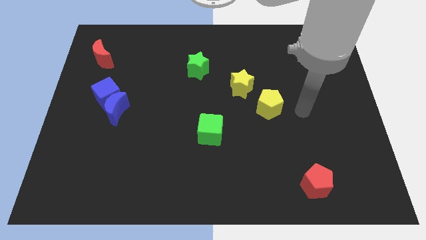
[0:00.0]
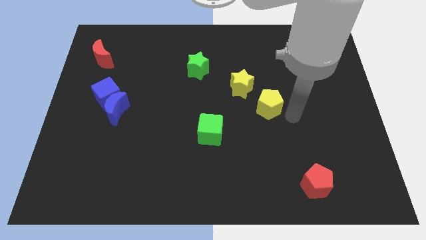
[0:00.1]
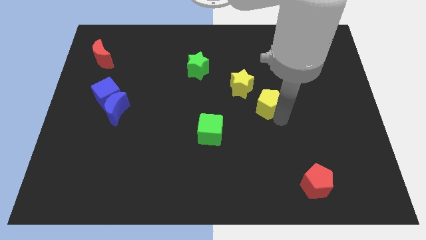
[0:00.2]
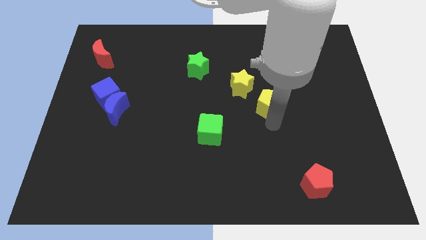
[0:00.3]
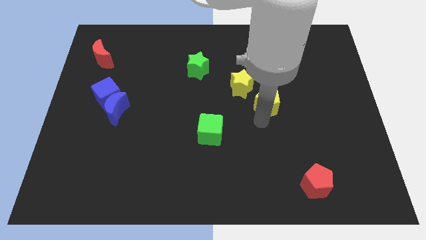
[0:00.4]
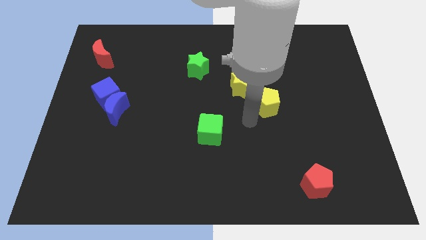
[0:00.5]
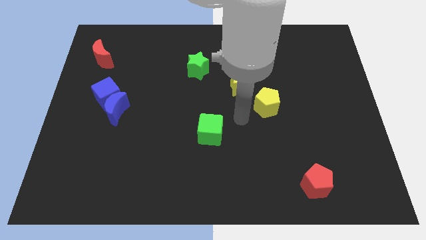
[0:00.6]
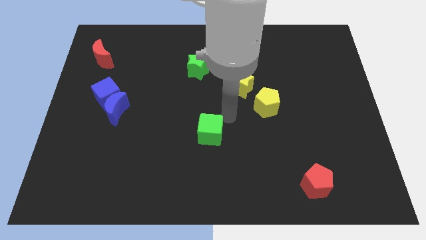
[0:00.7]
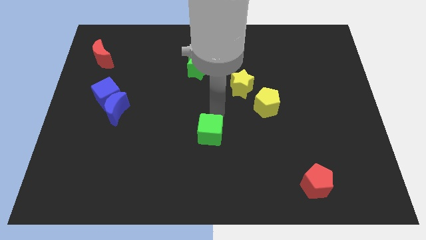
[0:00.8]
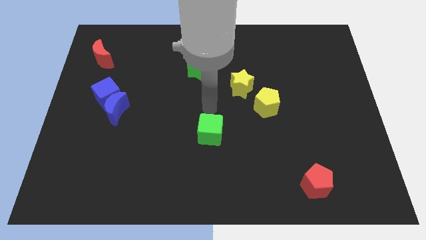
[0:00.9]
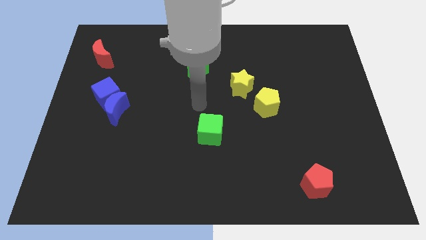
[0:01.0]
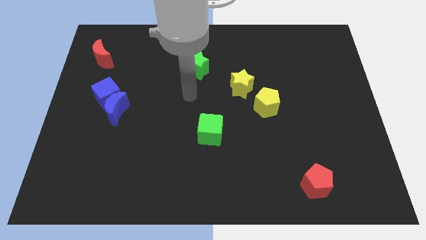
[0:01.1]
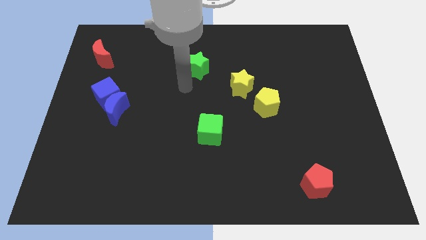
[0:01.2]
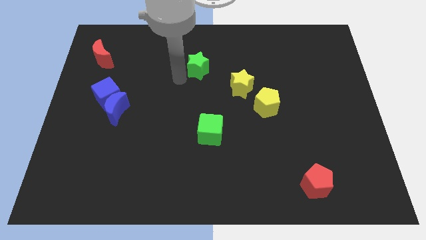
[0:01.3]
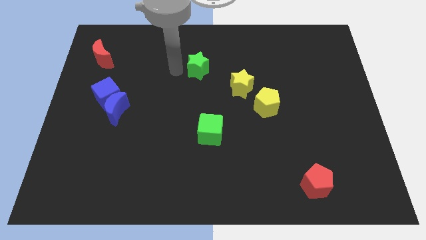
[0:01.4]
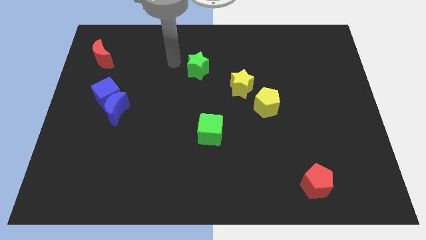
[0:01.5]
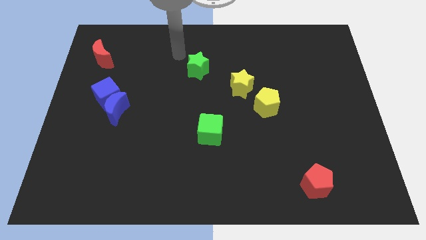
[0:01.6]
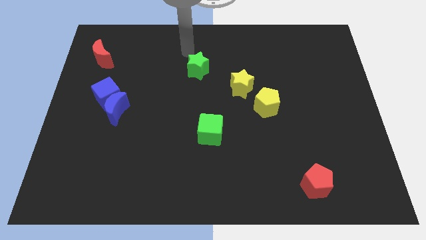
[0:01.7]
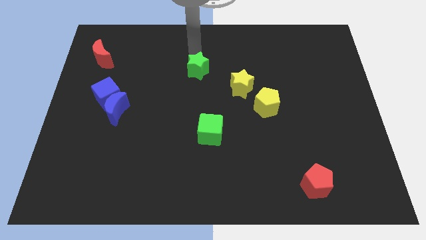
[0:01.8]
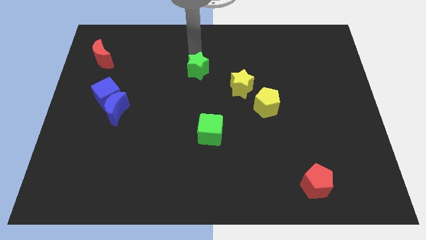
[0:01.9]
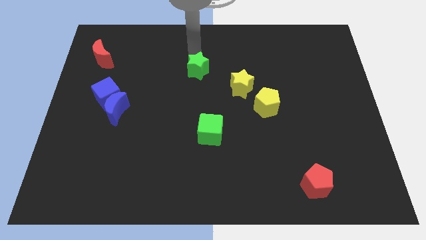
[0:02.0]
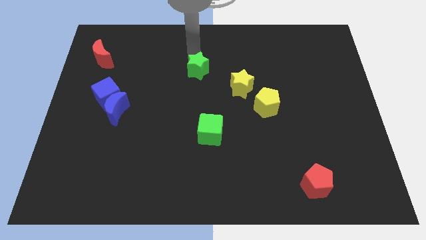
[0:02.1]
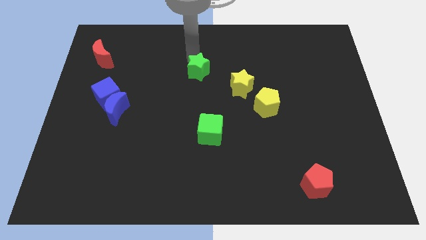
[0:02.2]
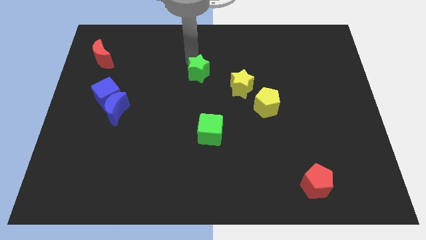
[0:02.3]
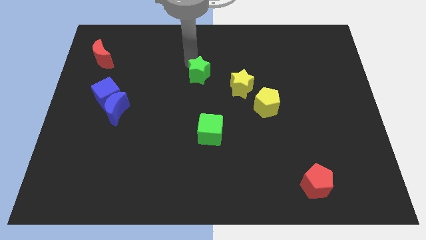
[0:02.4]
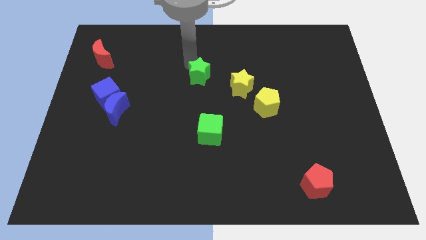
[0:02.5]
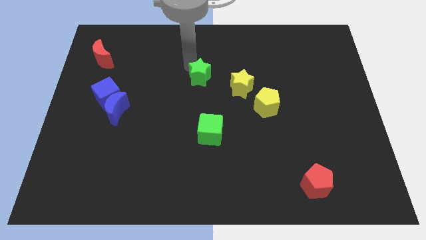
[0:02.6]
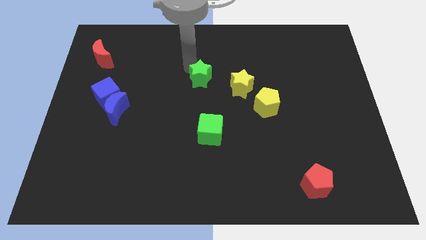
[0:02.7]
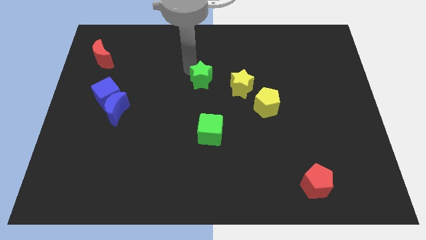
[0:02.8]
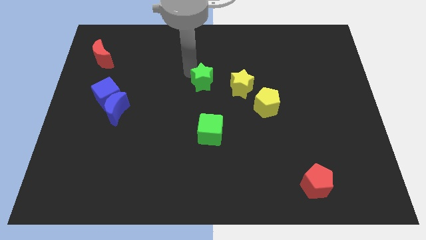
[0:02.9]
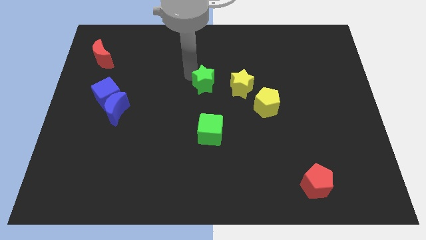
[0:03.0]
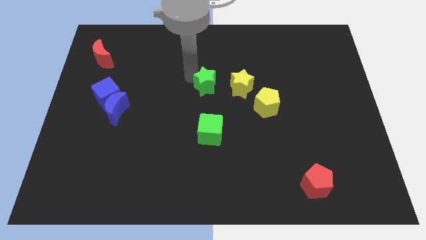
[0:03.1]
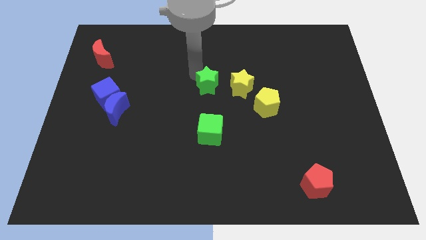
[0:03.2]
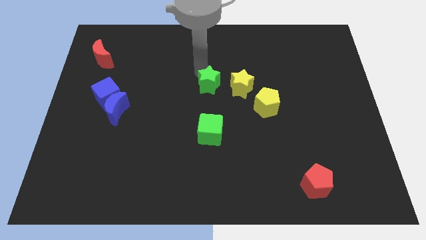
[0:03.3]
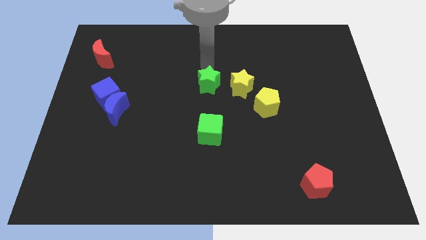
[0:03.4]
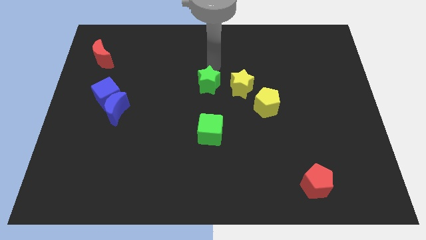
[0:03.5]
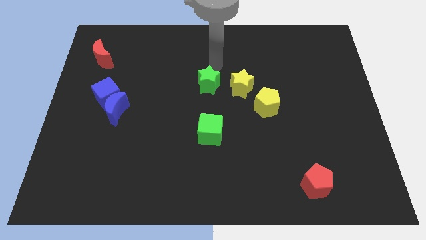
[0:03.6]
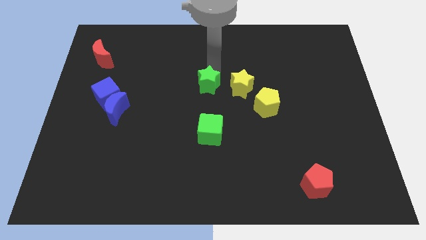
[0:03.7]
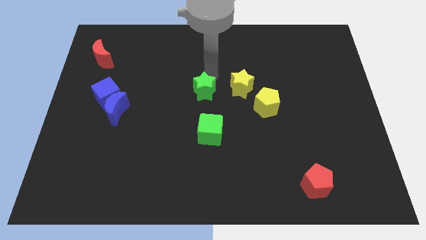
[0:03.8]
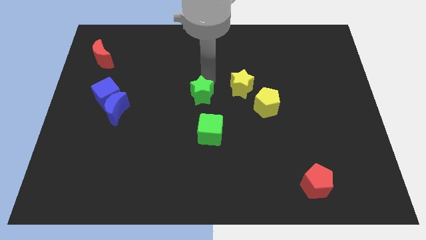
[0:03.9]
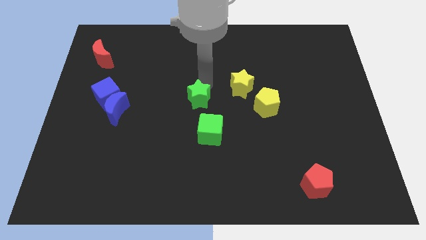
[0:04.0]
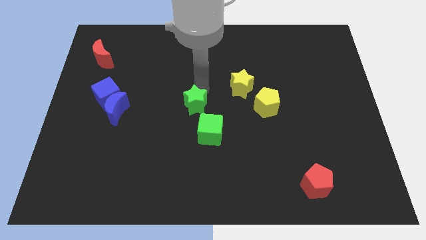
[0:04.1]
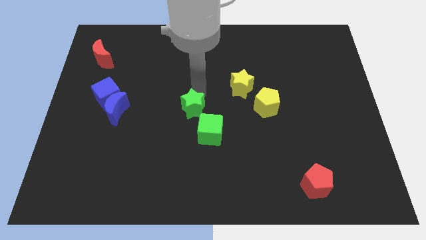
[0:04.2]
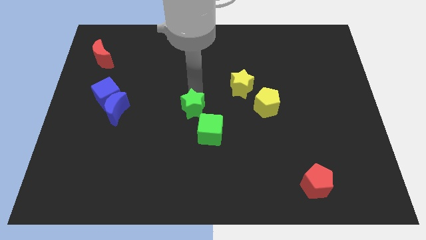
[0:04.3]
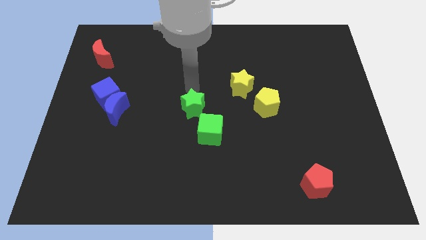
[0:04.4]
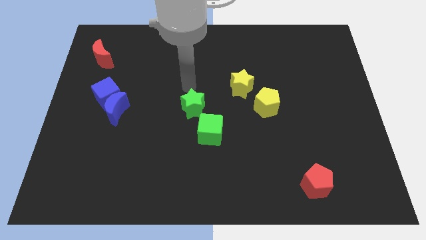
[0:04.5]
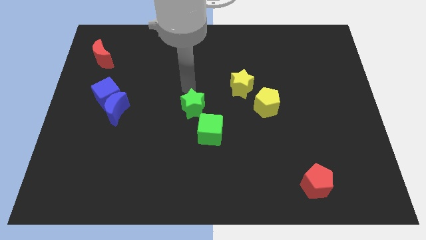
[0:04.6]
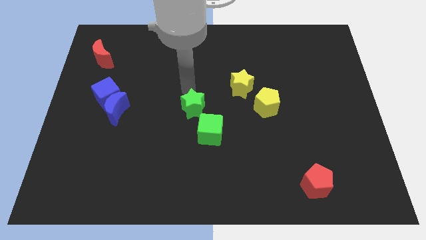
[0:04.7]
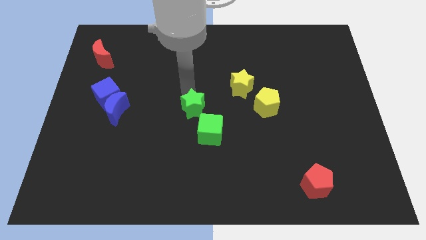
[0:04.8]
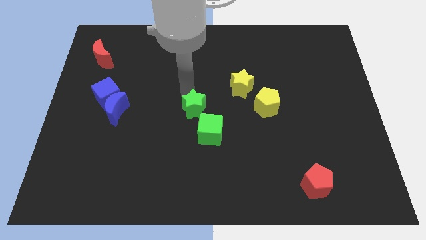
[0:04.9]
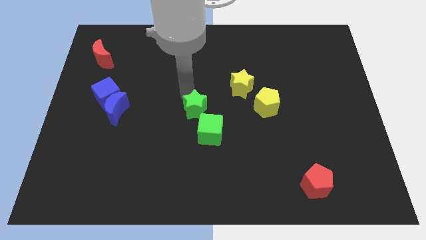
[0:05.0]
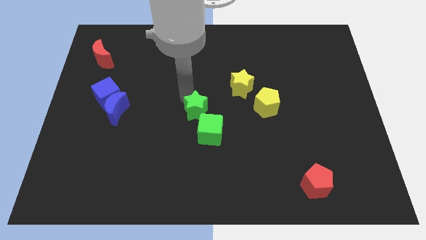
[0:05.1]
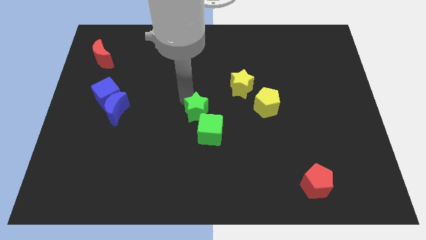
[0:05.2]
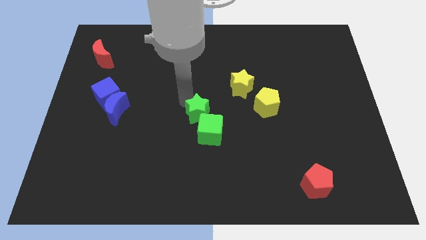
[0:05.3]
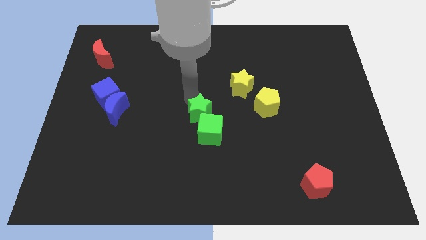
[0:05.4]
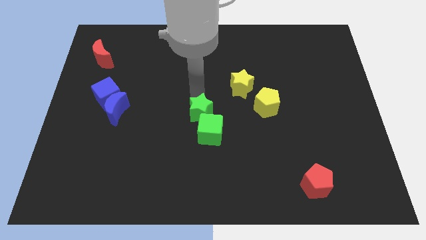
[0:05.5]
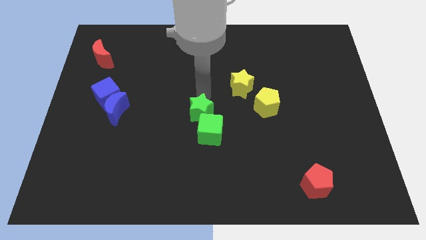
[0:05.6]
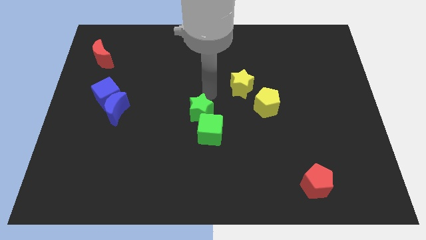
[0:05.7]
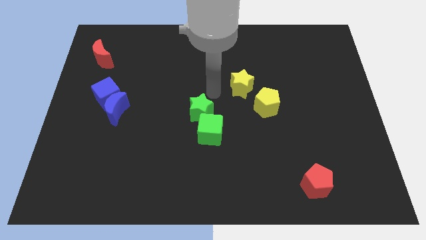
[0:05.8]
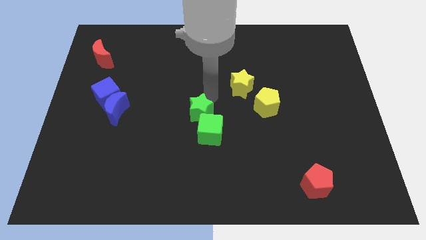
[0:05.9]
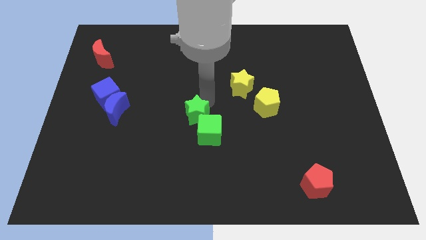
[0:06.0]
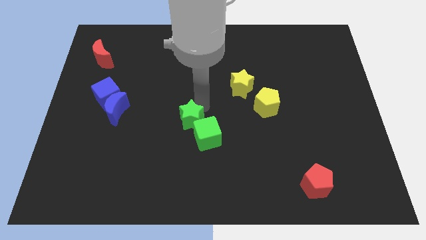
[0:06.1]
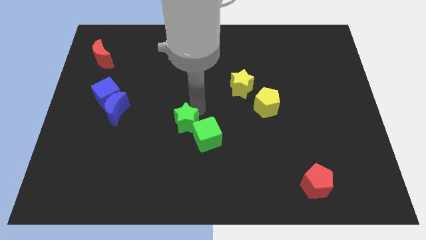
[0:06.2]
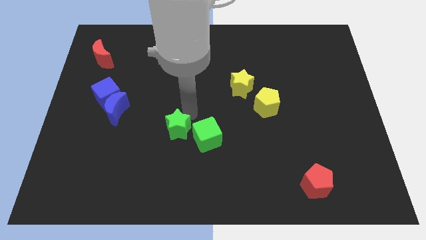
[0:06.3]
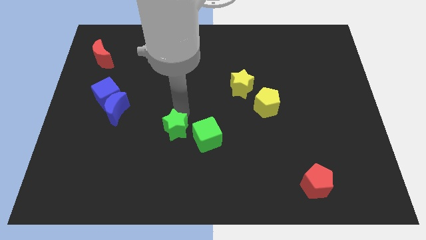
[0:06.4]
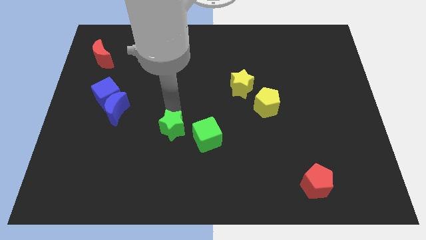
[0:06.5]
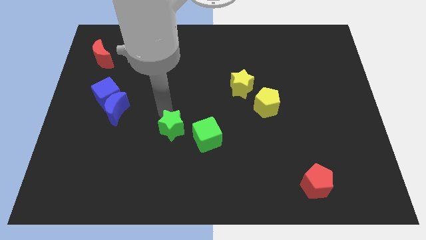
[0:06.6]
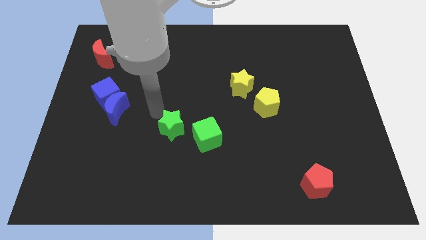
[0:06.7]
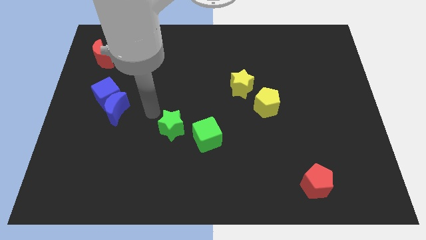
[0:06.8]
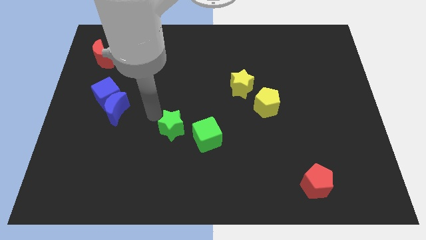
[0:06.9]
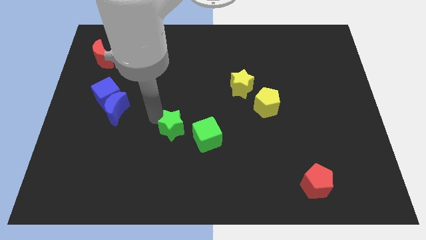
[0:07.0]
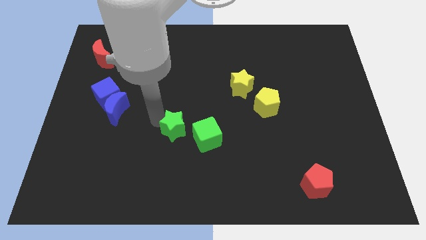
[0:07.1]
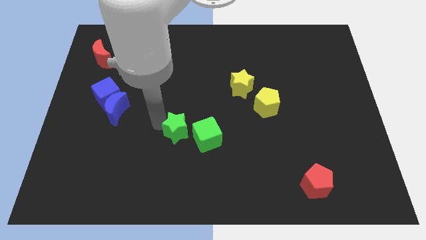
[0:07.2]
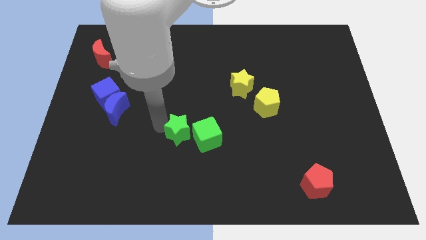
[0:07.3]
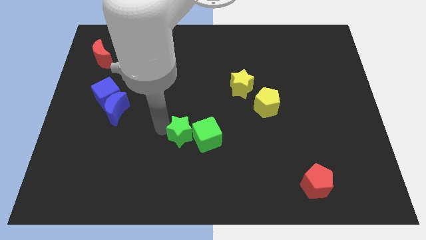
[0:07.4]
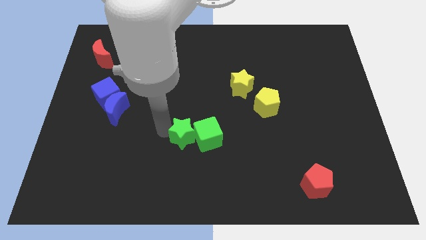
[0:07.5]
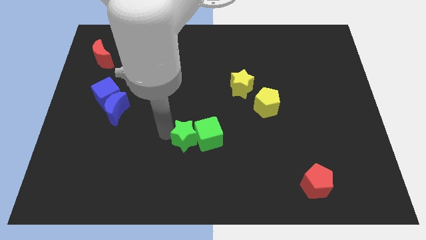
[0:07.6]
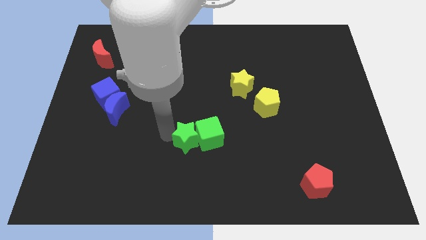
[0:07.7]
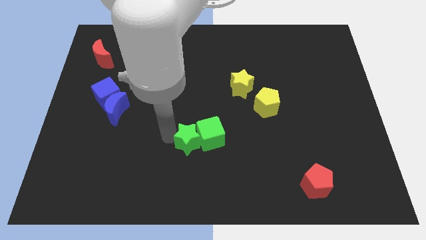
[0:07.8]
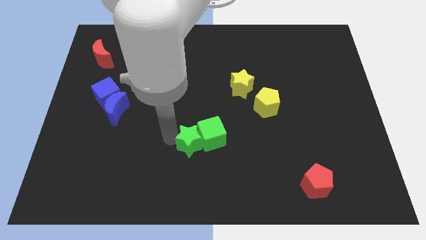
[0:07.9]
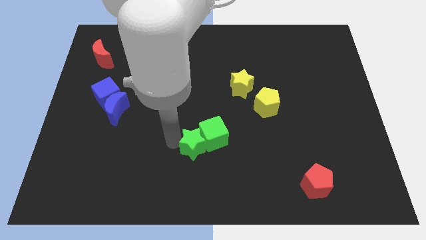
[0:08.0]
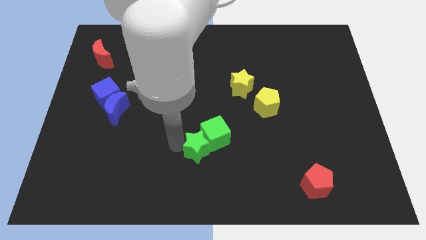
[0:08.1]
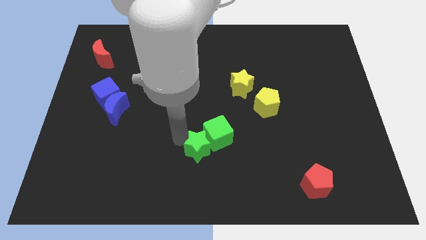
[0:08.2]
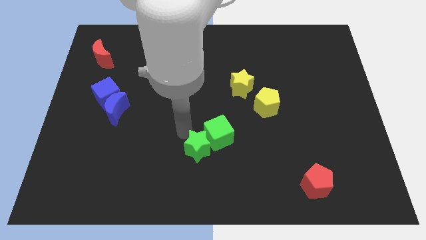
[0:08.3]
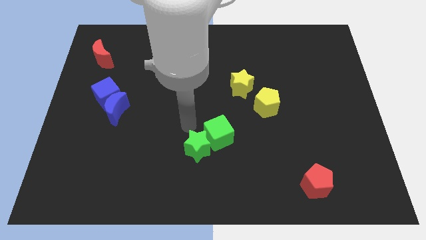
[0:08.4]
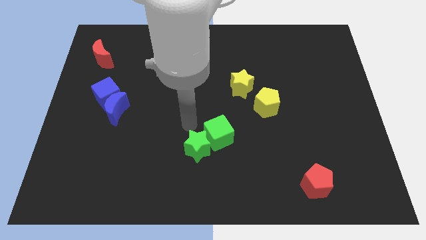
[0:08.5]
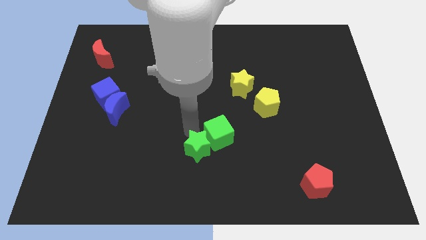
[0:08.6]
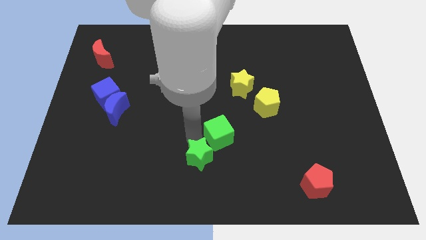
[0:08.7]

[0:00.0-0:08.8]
move the green star to the bottom side
